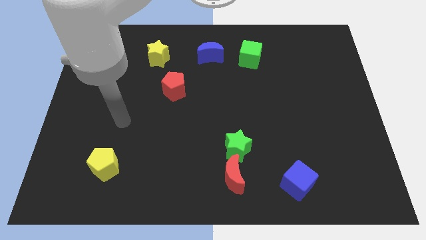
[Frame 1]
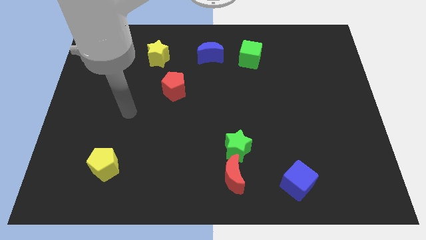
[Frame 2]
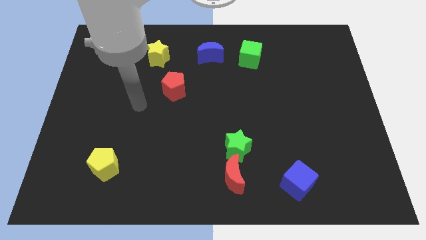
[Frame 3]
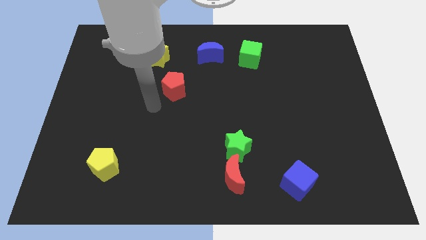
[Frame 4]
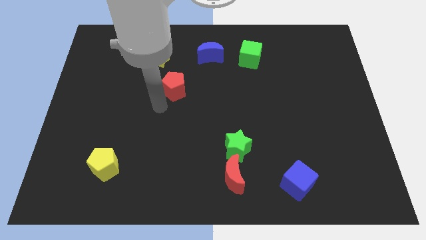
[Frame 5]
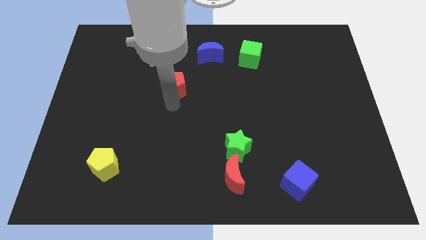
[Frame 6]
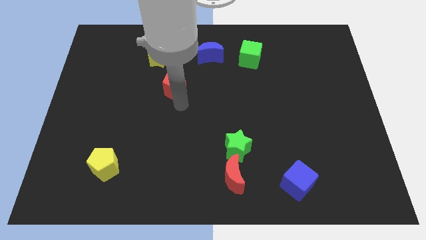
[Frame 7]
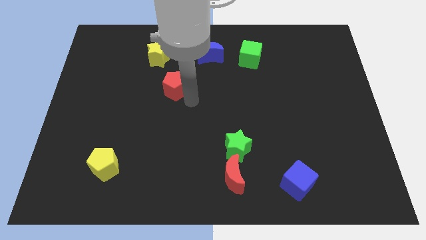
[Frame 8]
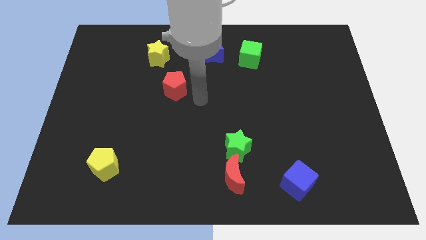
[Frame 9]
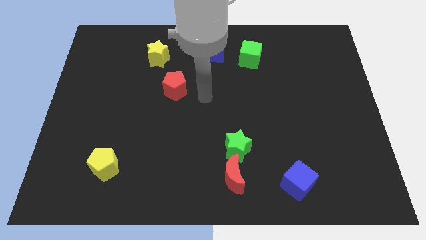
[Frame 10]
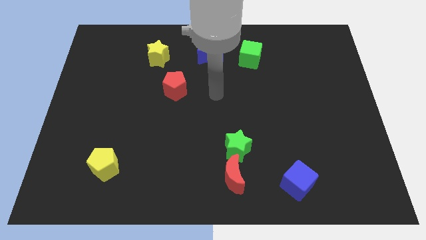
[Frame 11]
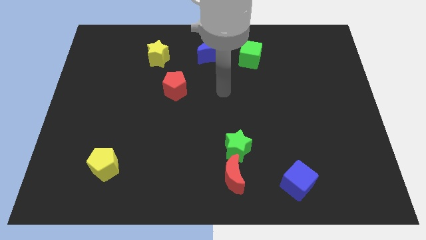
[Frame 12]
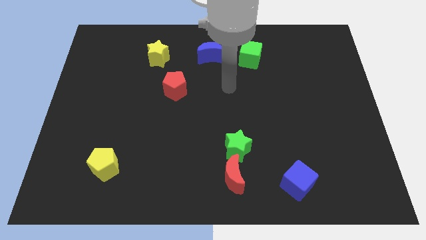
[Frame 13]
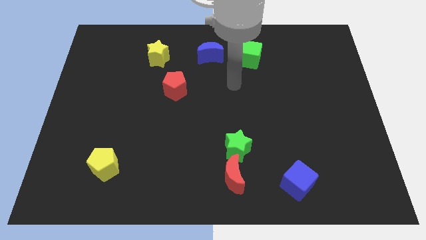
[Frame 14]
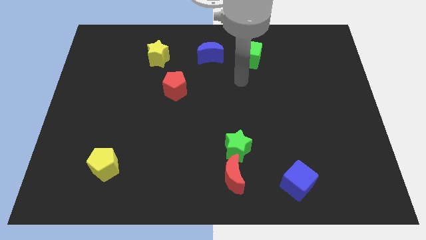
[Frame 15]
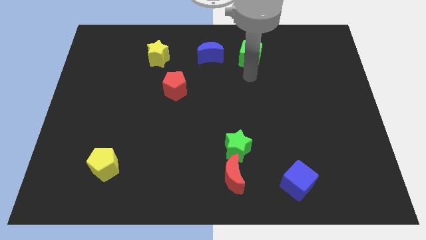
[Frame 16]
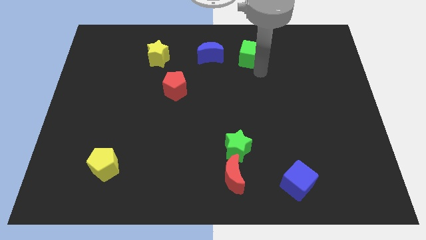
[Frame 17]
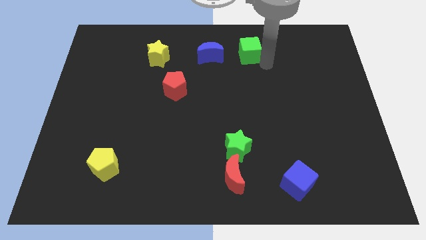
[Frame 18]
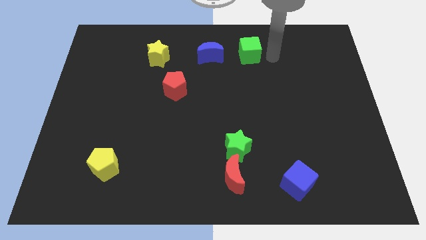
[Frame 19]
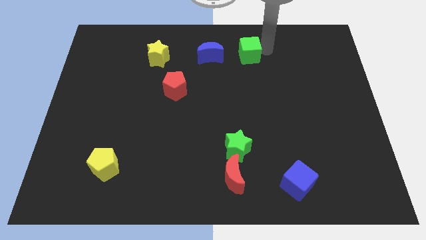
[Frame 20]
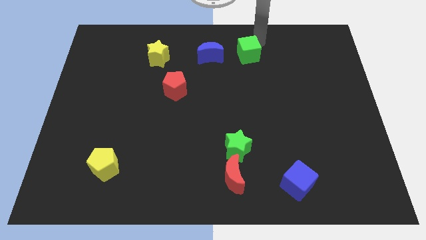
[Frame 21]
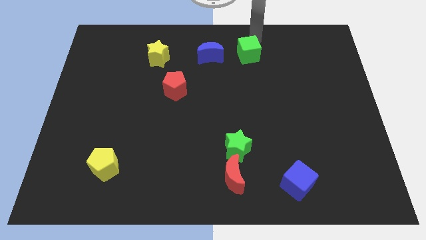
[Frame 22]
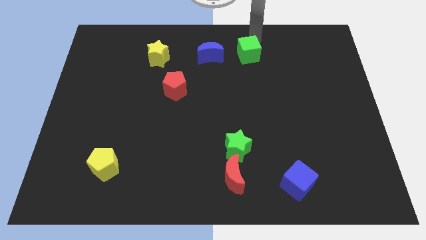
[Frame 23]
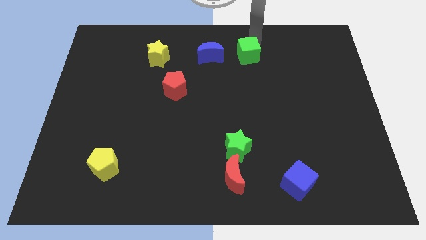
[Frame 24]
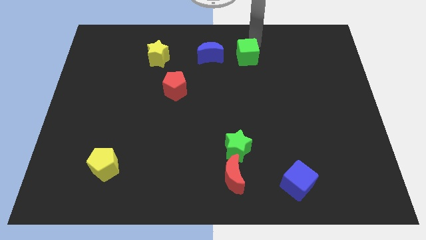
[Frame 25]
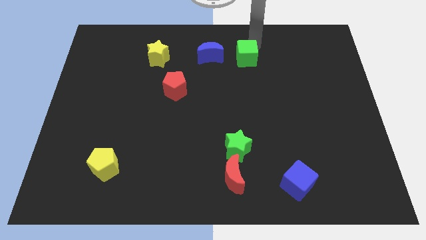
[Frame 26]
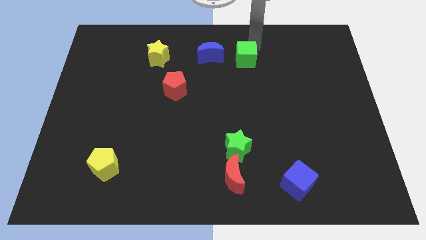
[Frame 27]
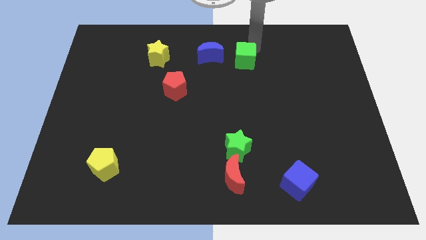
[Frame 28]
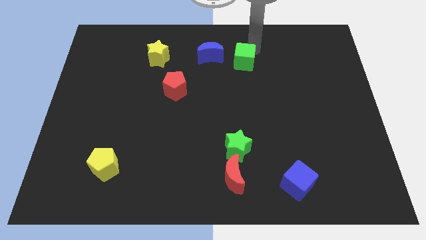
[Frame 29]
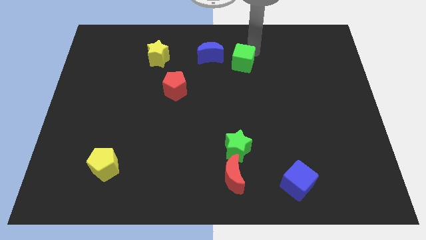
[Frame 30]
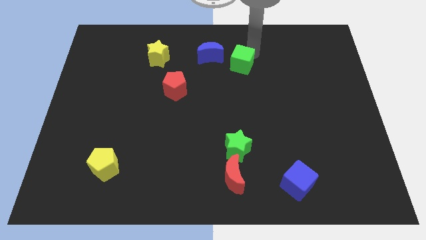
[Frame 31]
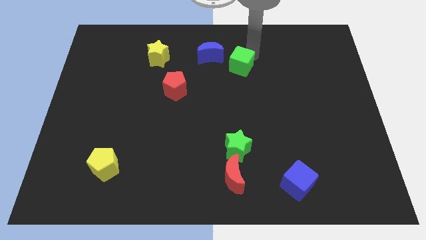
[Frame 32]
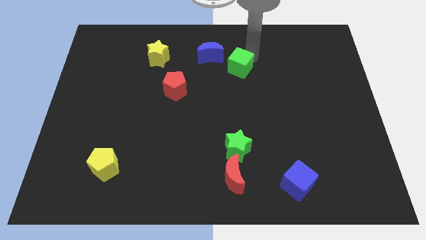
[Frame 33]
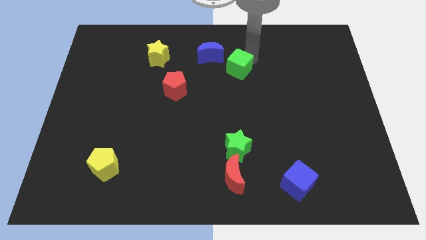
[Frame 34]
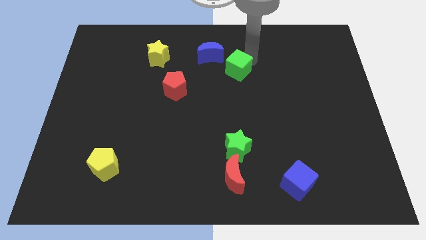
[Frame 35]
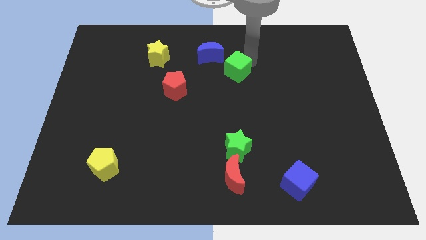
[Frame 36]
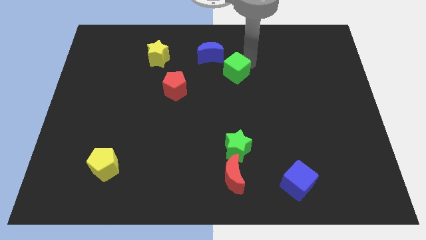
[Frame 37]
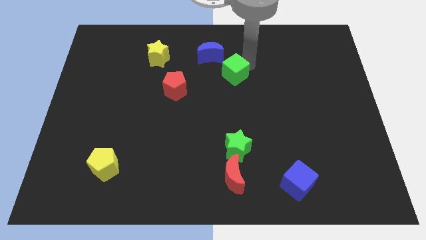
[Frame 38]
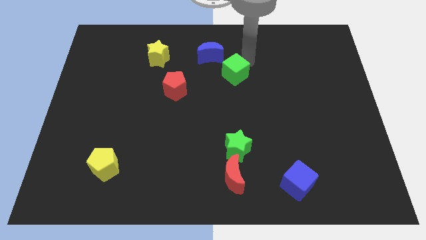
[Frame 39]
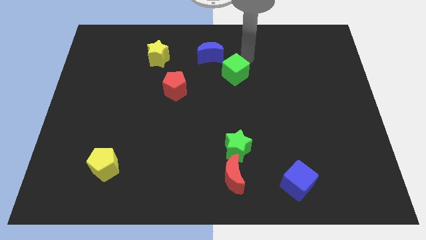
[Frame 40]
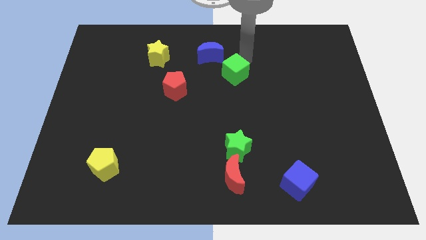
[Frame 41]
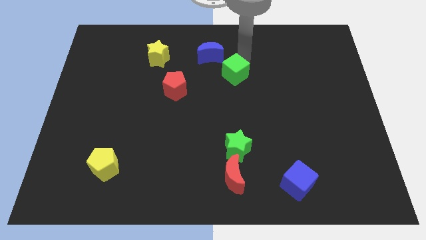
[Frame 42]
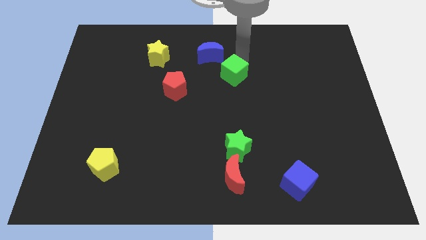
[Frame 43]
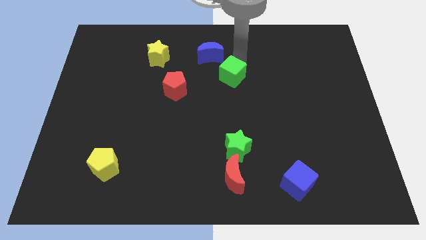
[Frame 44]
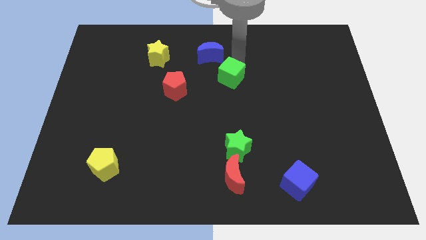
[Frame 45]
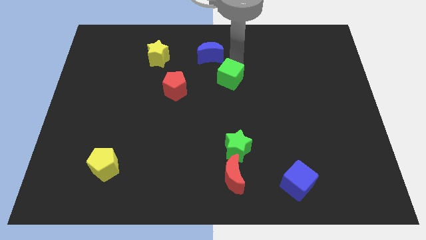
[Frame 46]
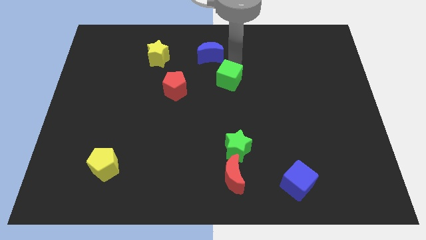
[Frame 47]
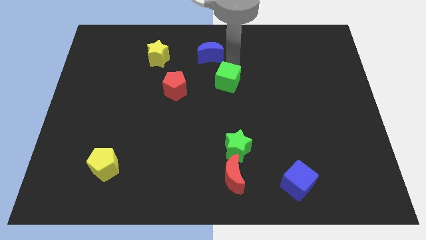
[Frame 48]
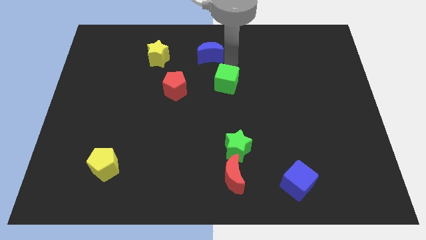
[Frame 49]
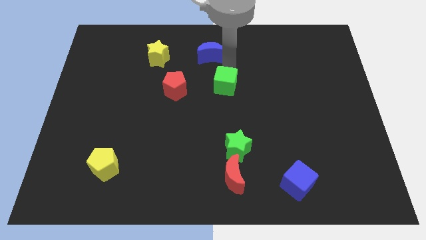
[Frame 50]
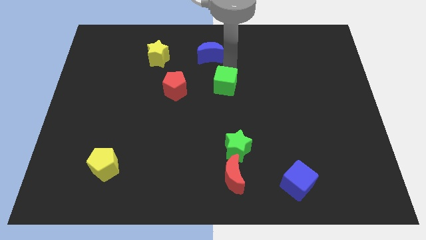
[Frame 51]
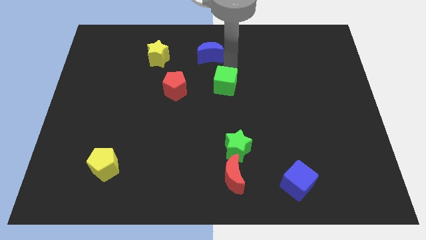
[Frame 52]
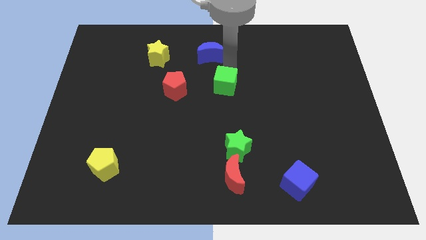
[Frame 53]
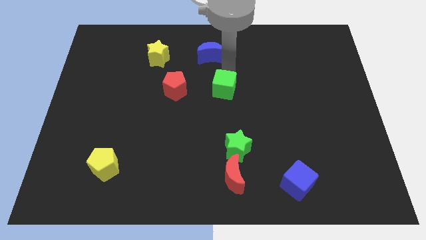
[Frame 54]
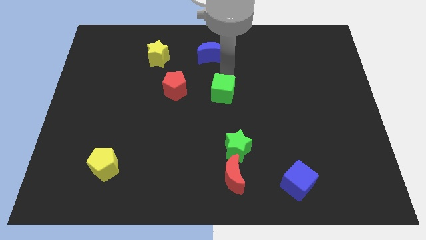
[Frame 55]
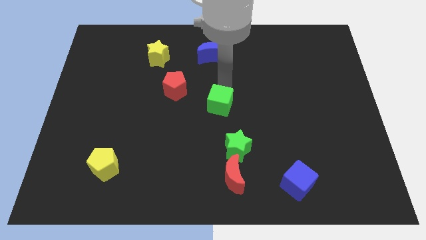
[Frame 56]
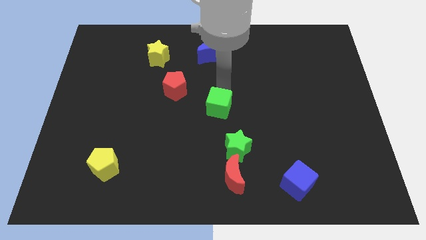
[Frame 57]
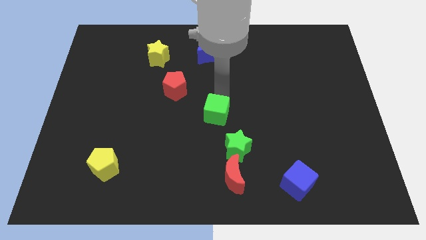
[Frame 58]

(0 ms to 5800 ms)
push the green cube to the top left of the green star

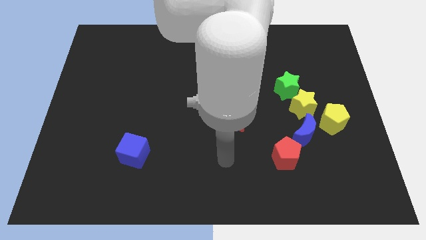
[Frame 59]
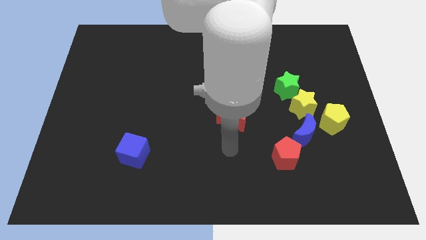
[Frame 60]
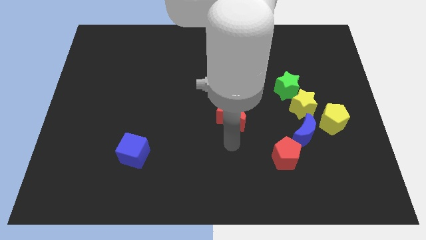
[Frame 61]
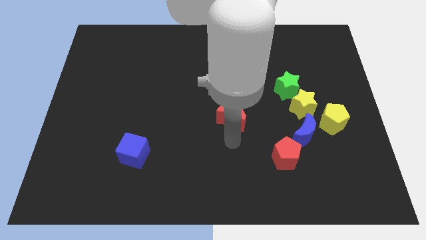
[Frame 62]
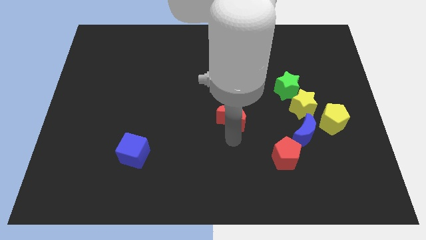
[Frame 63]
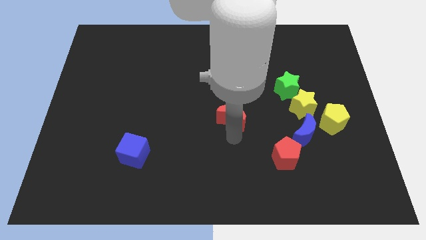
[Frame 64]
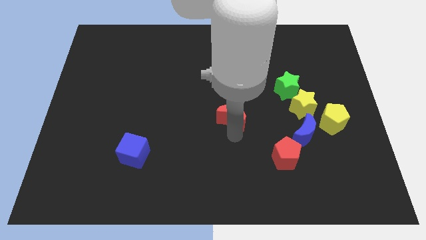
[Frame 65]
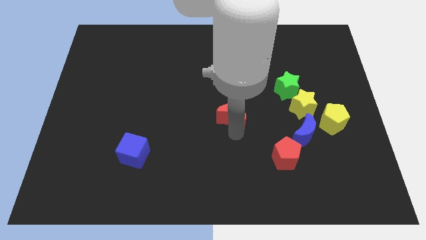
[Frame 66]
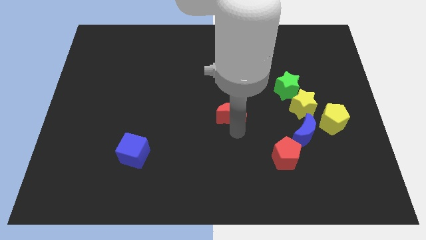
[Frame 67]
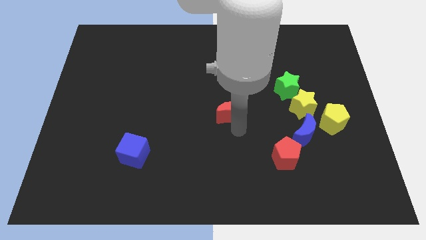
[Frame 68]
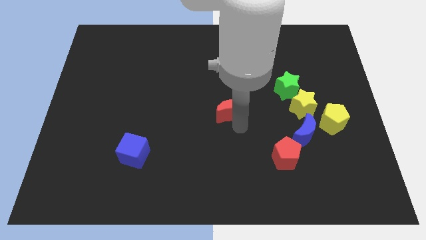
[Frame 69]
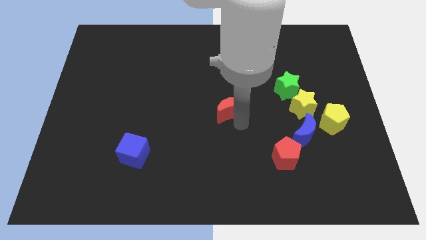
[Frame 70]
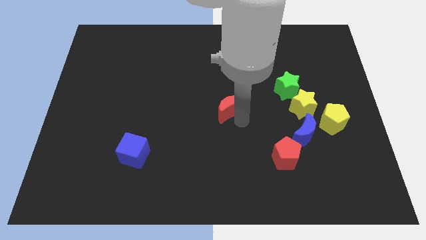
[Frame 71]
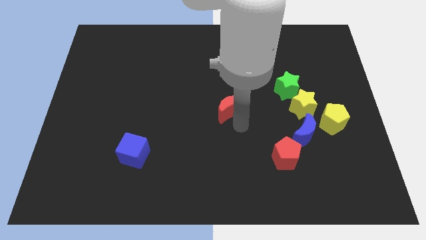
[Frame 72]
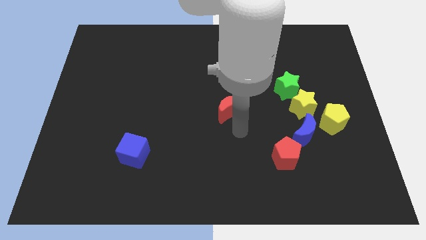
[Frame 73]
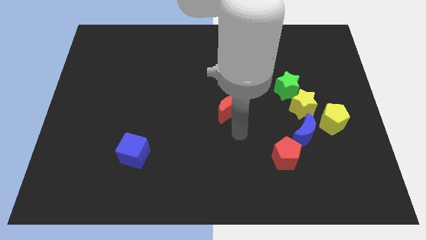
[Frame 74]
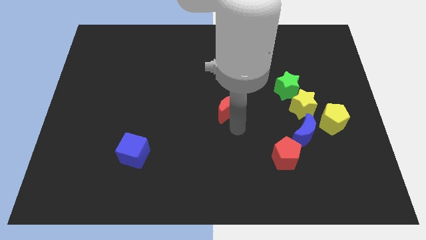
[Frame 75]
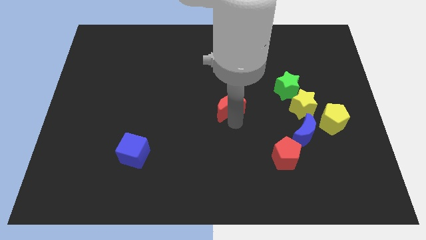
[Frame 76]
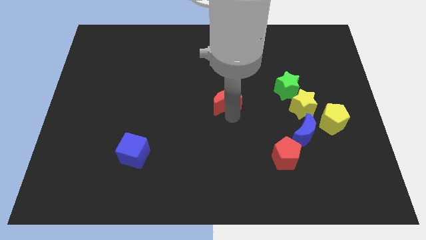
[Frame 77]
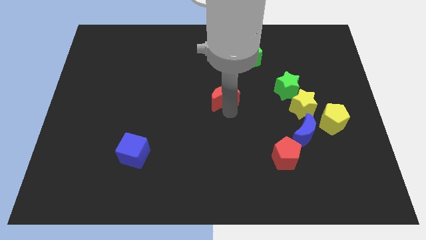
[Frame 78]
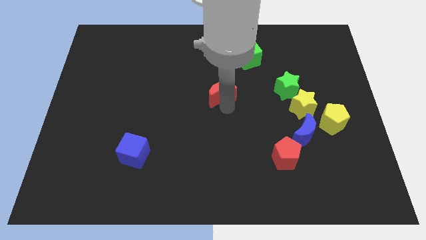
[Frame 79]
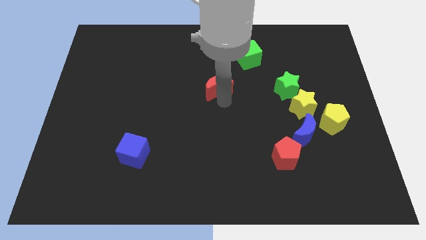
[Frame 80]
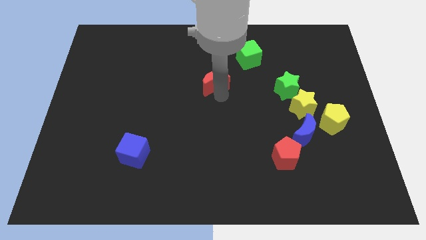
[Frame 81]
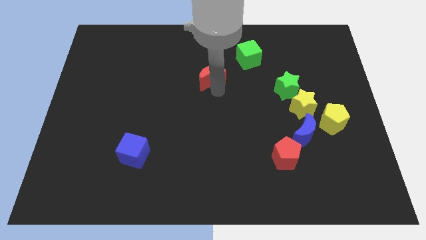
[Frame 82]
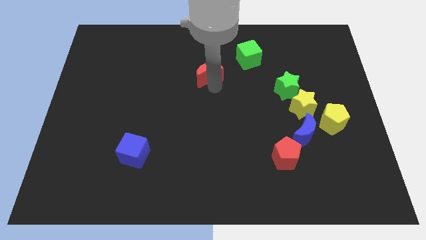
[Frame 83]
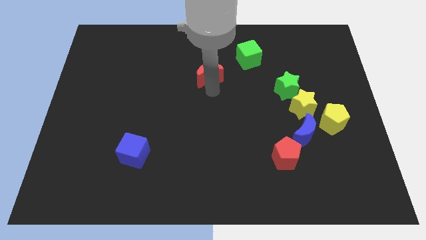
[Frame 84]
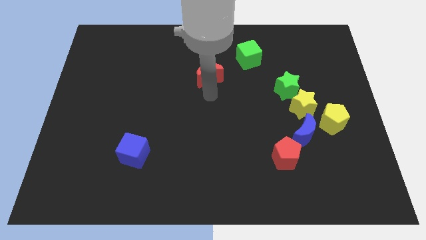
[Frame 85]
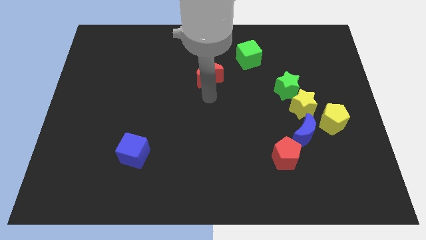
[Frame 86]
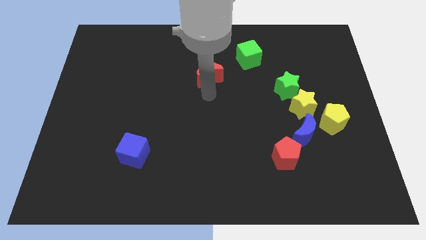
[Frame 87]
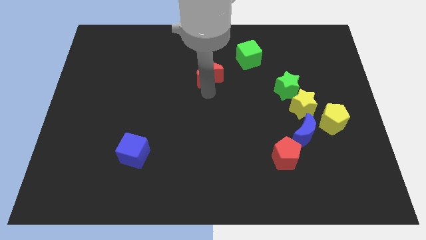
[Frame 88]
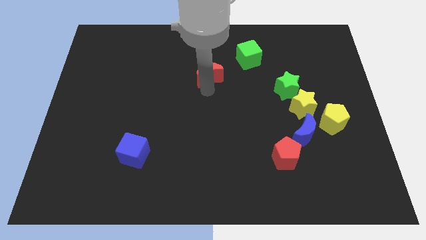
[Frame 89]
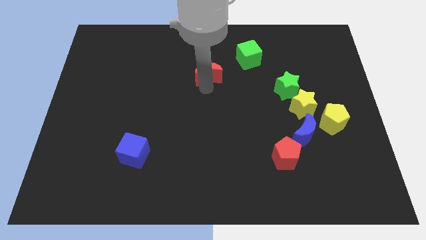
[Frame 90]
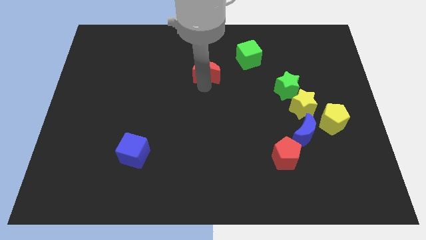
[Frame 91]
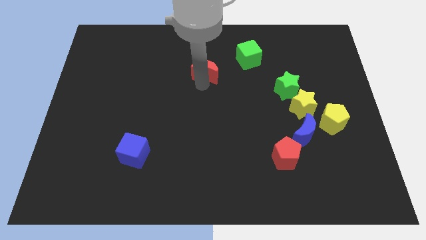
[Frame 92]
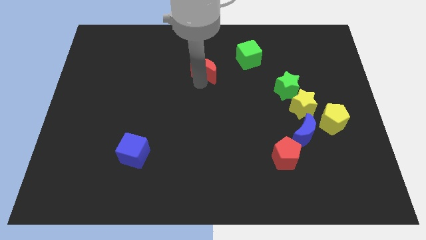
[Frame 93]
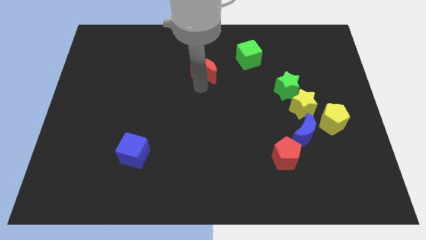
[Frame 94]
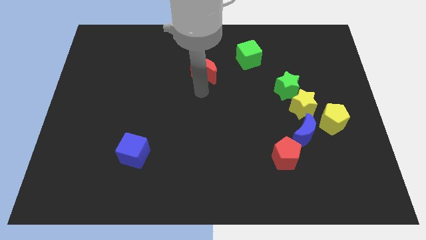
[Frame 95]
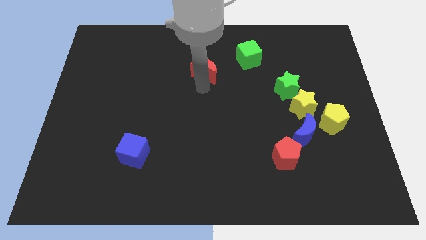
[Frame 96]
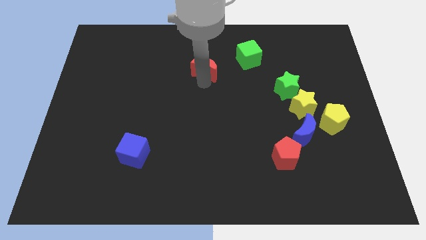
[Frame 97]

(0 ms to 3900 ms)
push the red moon to the left side of the green cube
